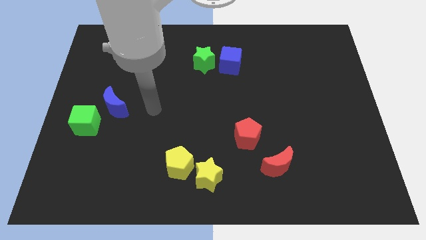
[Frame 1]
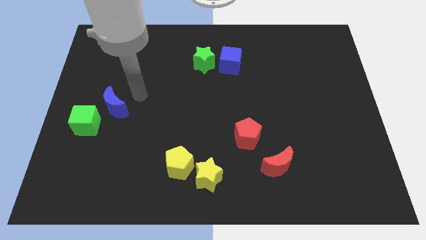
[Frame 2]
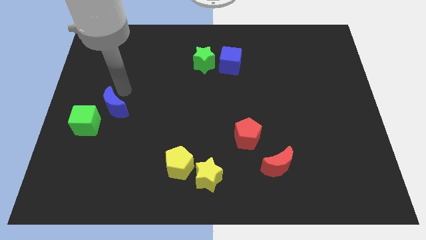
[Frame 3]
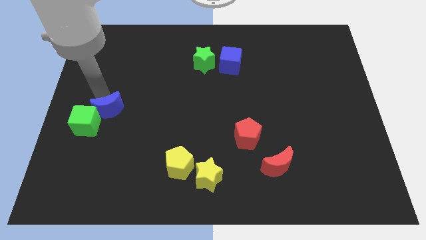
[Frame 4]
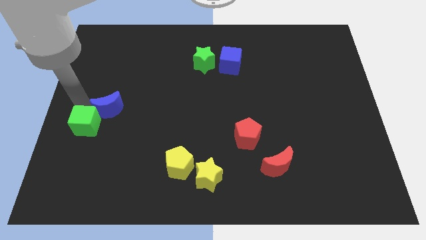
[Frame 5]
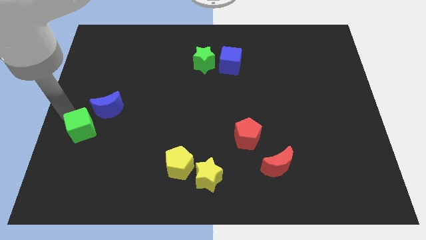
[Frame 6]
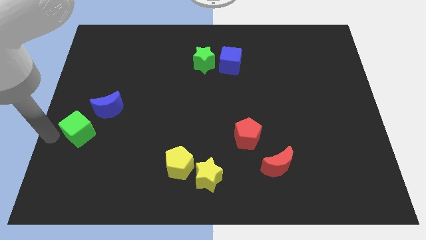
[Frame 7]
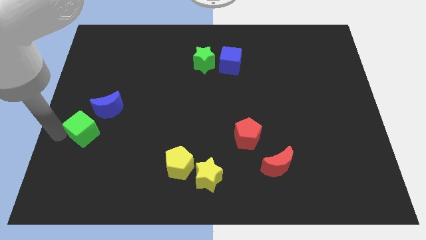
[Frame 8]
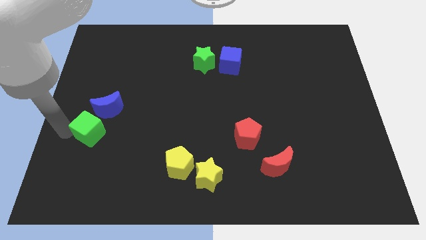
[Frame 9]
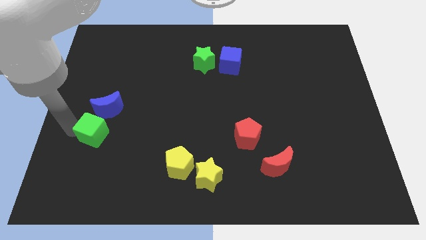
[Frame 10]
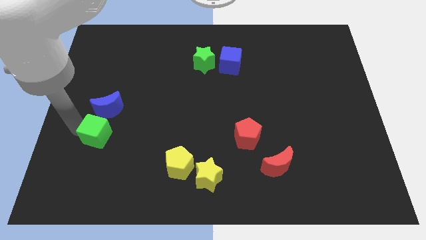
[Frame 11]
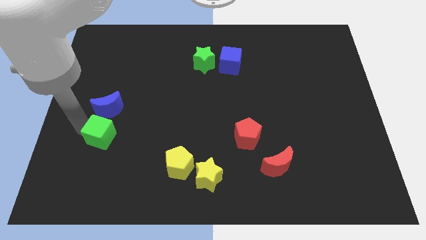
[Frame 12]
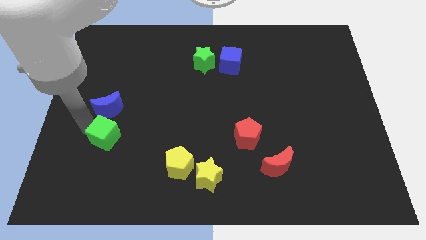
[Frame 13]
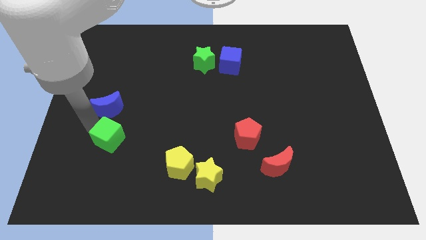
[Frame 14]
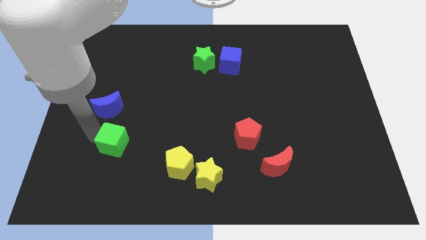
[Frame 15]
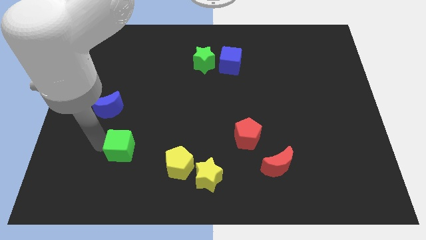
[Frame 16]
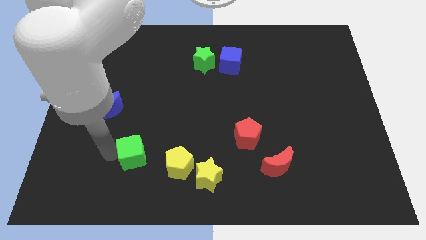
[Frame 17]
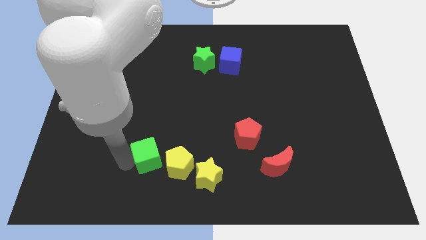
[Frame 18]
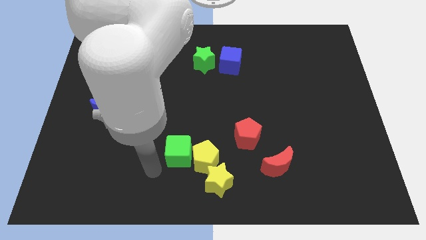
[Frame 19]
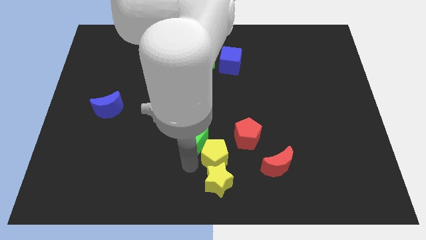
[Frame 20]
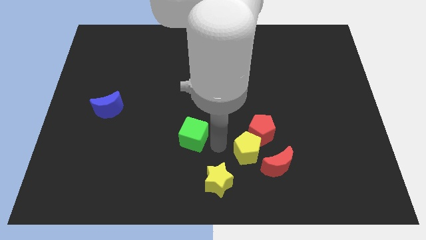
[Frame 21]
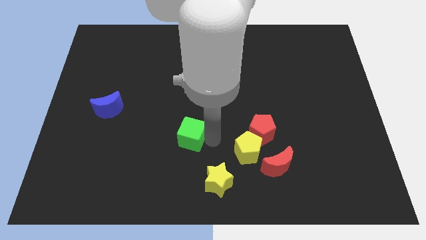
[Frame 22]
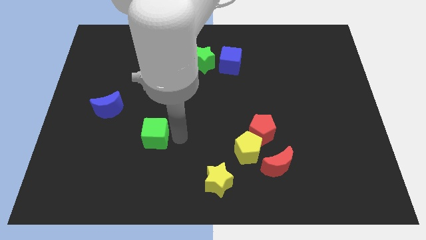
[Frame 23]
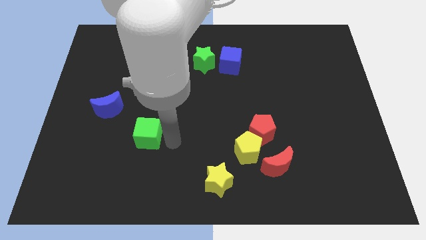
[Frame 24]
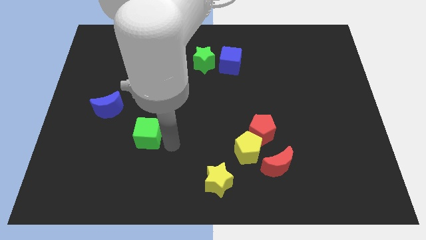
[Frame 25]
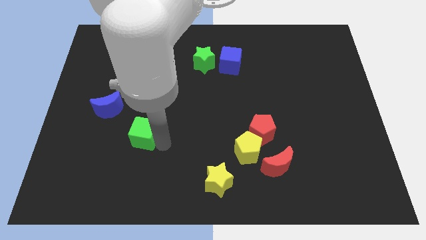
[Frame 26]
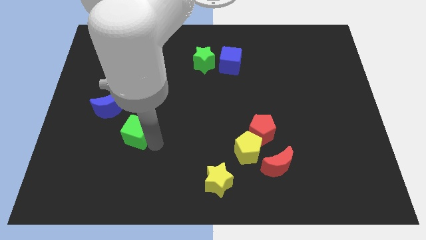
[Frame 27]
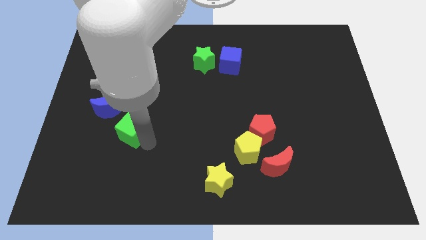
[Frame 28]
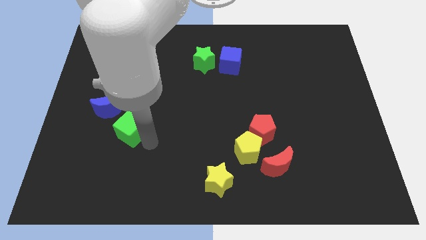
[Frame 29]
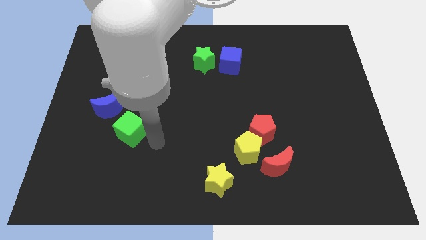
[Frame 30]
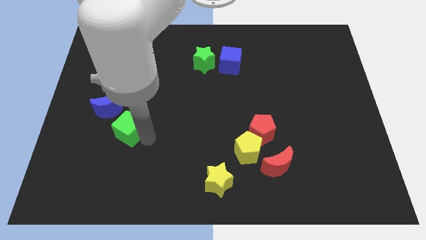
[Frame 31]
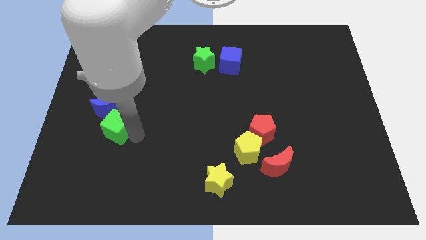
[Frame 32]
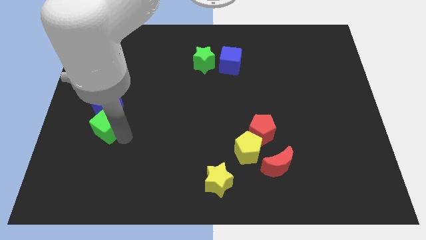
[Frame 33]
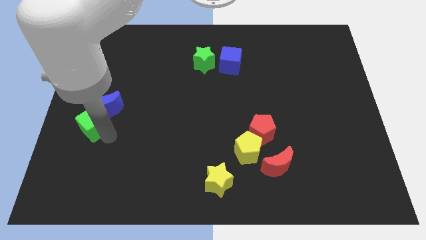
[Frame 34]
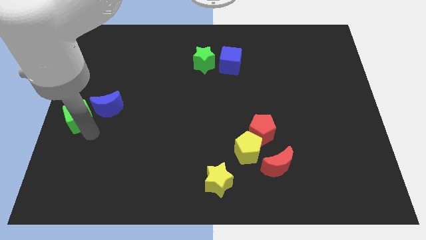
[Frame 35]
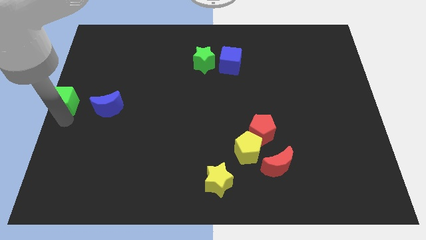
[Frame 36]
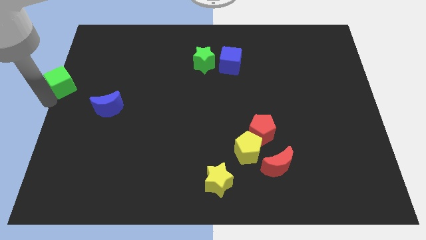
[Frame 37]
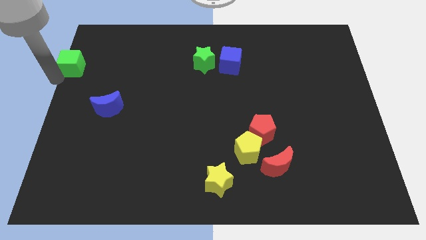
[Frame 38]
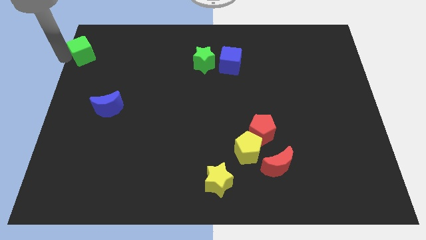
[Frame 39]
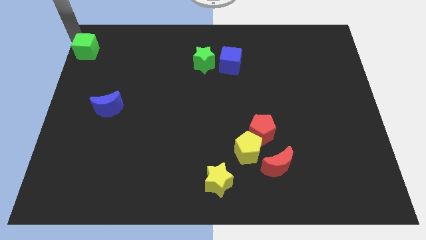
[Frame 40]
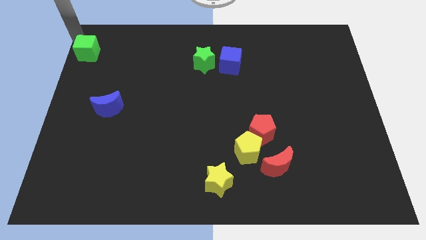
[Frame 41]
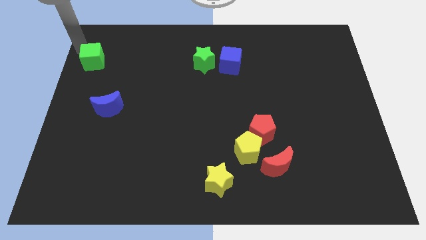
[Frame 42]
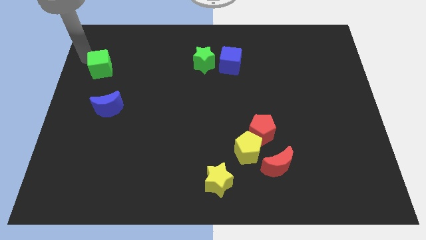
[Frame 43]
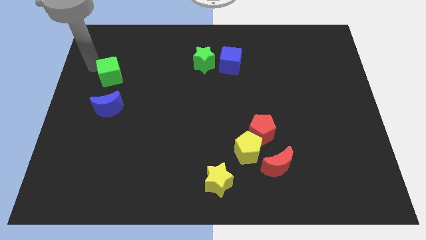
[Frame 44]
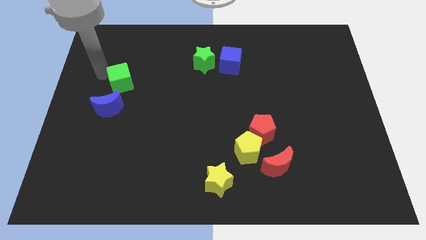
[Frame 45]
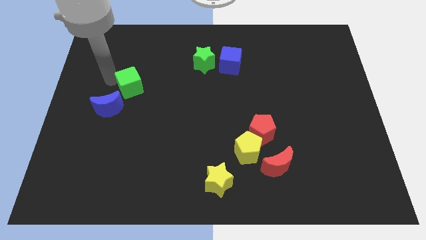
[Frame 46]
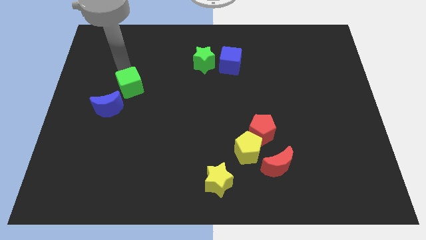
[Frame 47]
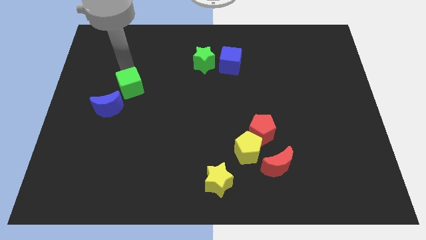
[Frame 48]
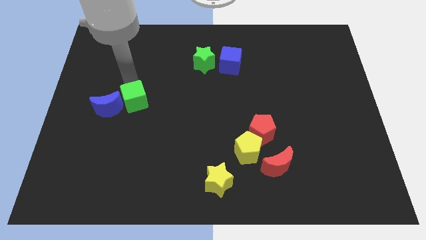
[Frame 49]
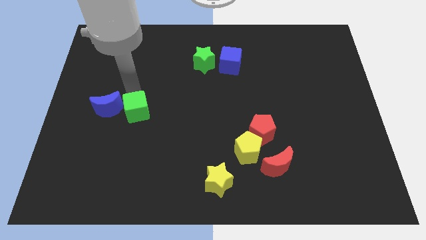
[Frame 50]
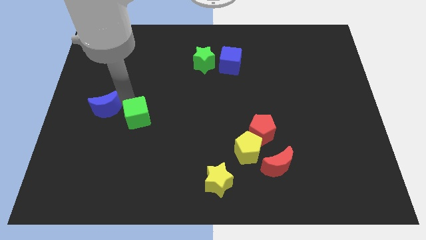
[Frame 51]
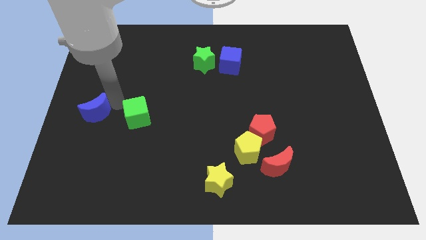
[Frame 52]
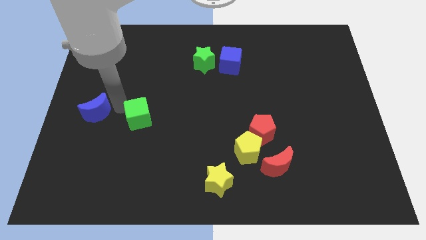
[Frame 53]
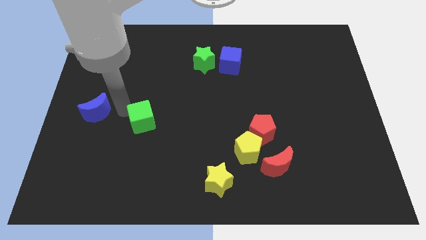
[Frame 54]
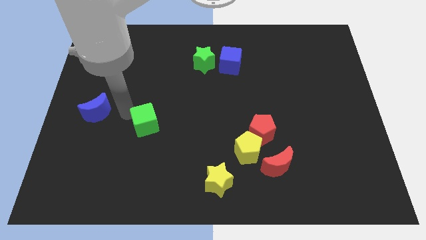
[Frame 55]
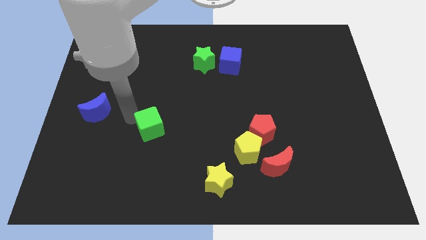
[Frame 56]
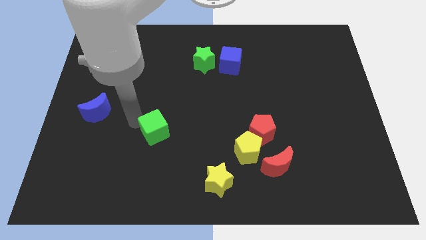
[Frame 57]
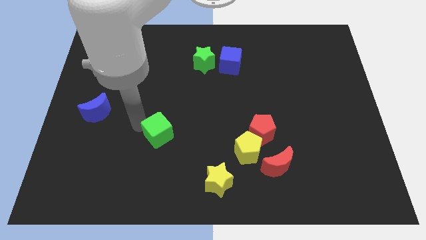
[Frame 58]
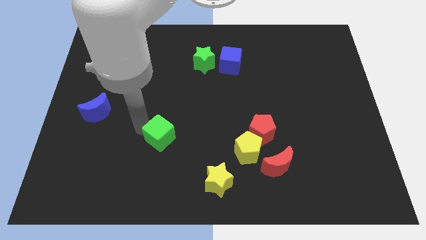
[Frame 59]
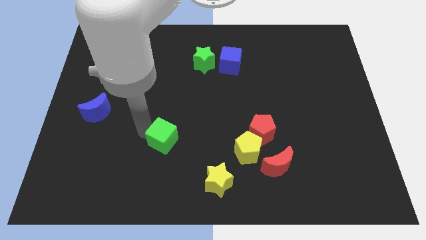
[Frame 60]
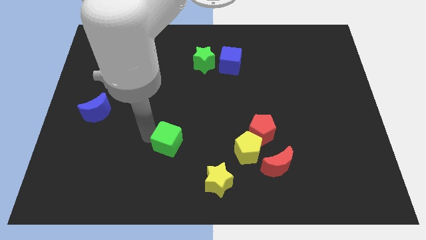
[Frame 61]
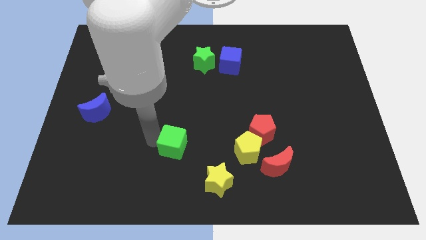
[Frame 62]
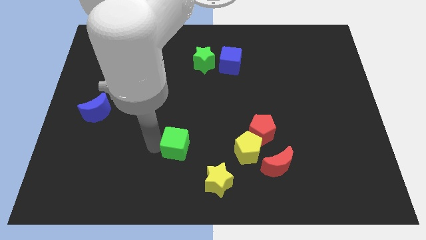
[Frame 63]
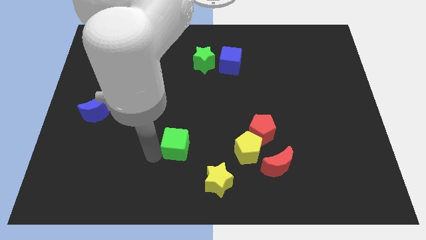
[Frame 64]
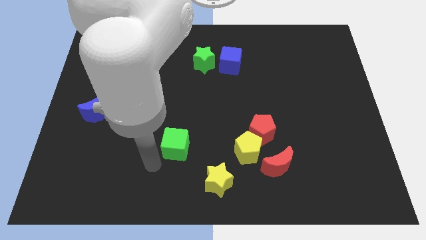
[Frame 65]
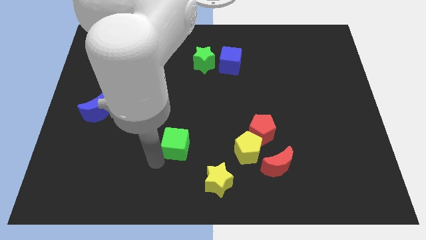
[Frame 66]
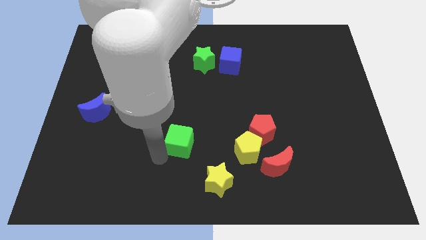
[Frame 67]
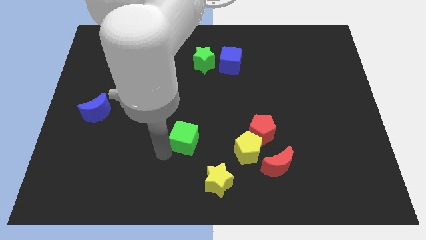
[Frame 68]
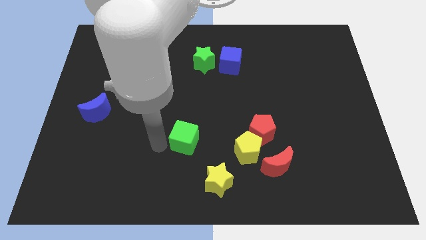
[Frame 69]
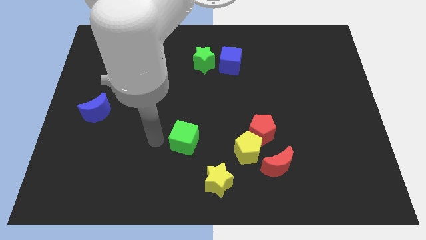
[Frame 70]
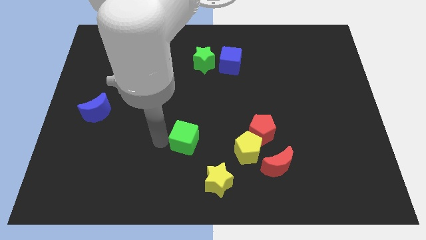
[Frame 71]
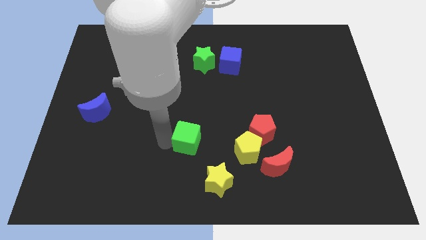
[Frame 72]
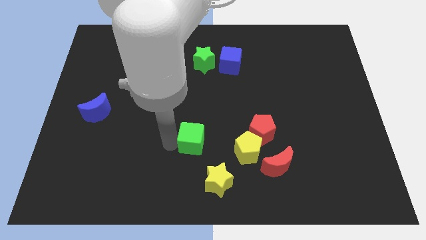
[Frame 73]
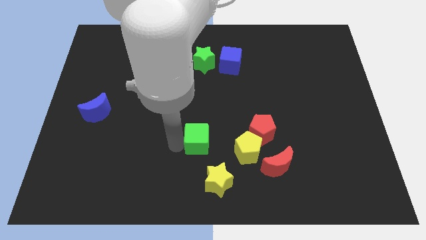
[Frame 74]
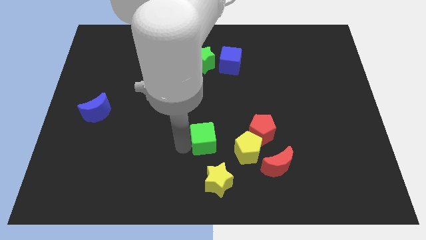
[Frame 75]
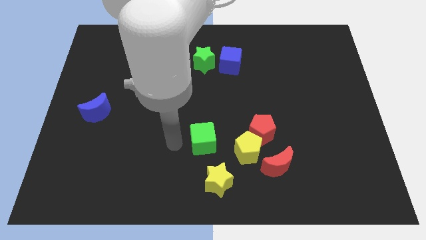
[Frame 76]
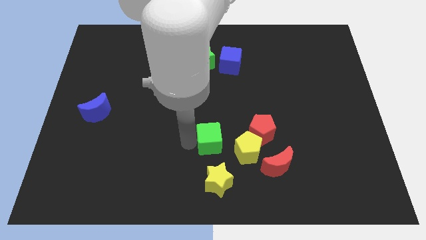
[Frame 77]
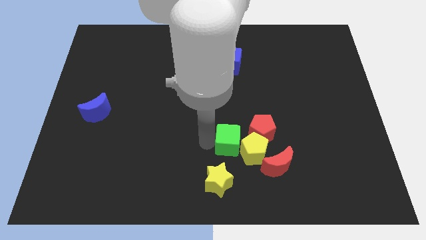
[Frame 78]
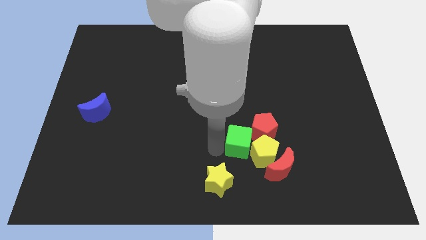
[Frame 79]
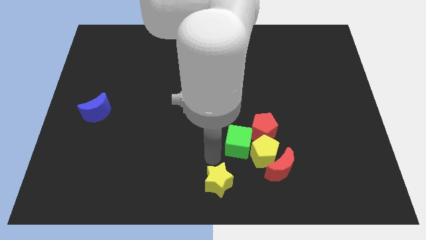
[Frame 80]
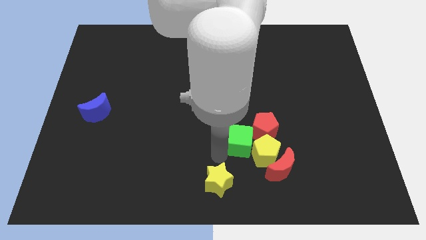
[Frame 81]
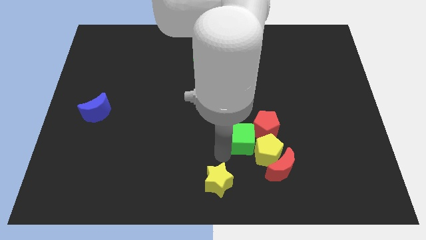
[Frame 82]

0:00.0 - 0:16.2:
push the green cube to the red pentagon
